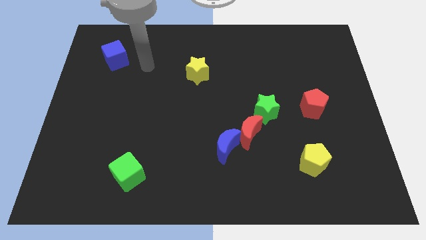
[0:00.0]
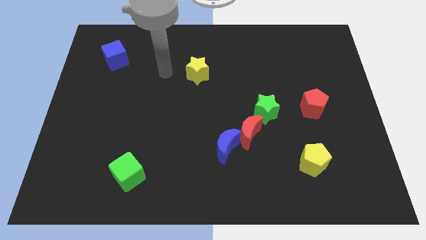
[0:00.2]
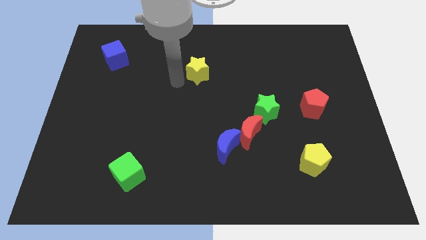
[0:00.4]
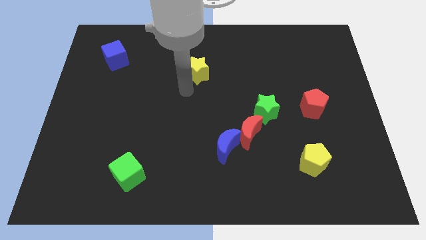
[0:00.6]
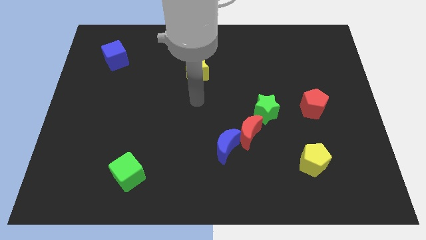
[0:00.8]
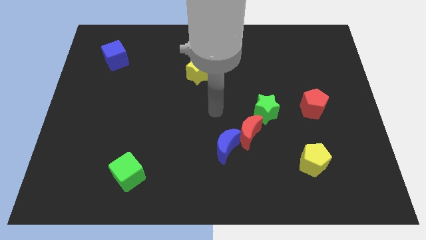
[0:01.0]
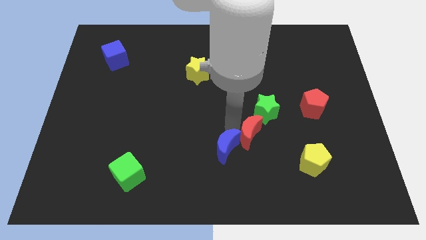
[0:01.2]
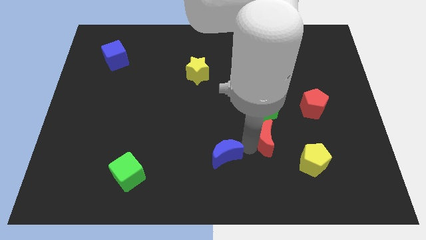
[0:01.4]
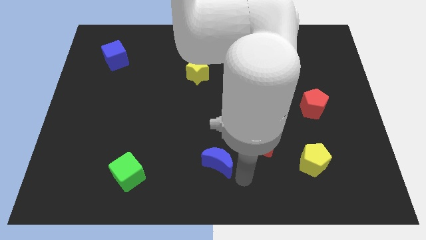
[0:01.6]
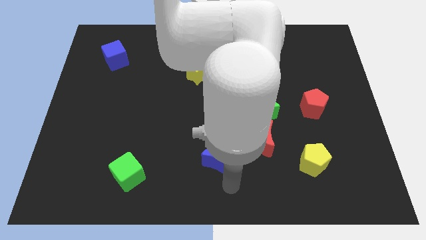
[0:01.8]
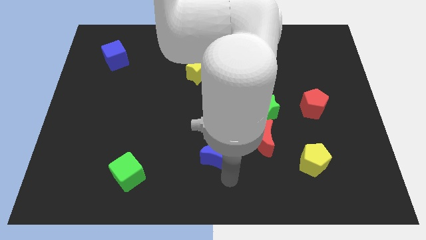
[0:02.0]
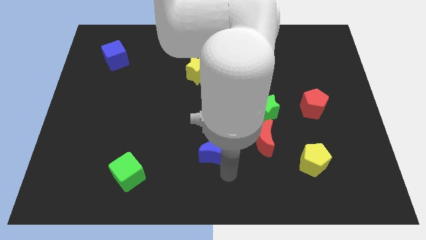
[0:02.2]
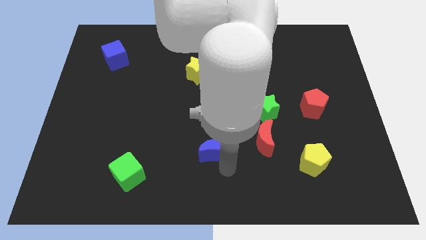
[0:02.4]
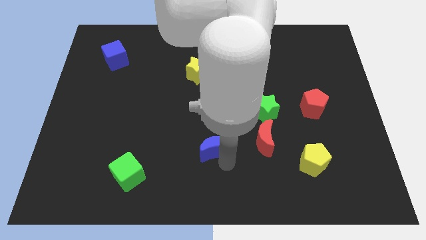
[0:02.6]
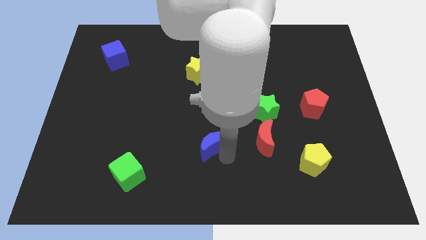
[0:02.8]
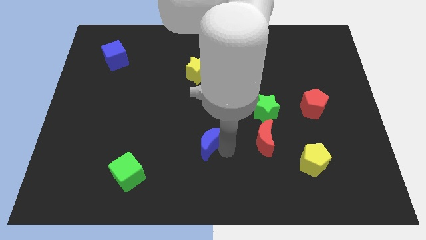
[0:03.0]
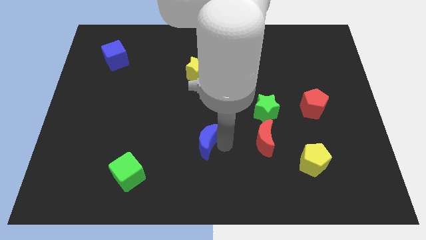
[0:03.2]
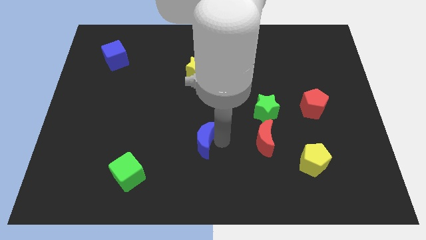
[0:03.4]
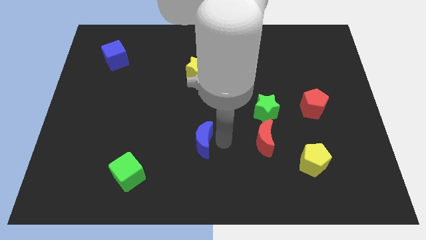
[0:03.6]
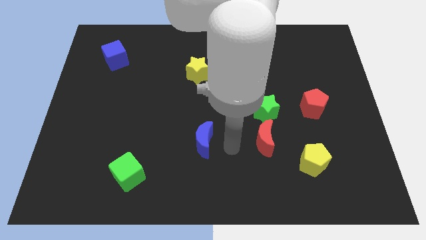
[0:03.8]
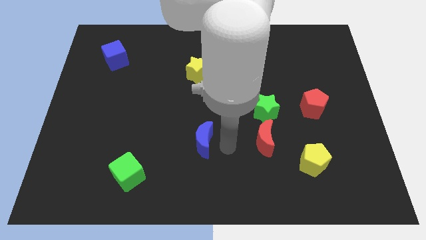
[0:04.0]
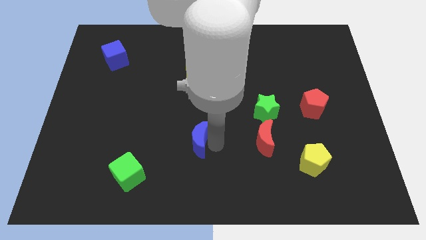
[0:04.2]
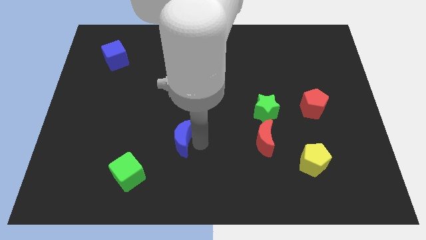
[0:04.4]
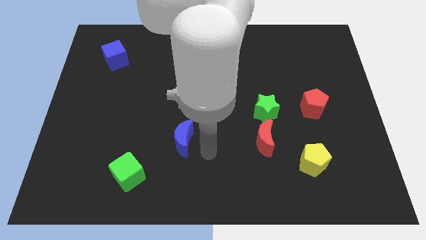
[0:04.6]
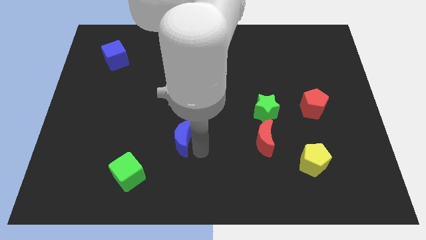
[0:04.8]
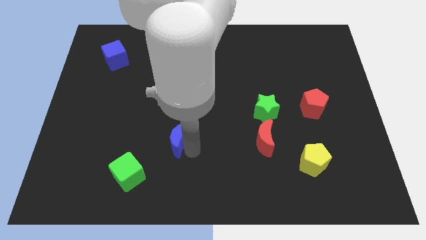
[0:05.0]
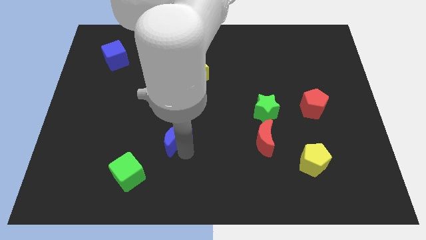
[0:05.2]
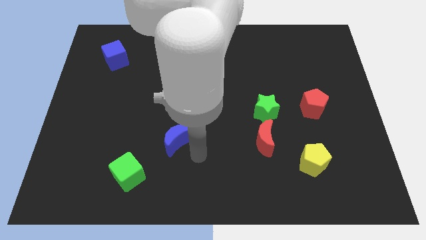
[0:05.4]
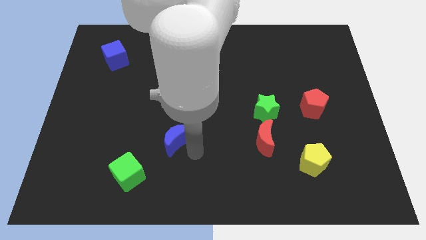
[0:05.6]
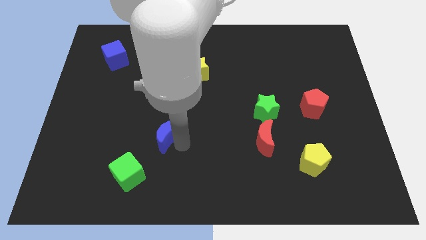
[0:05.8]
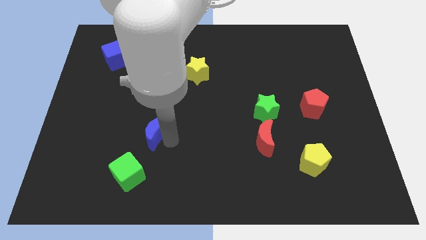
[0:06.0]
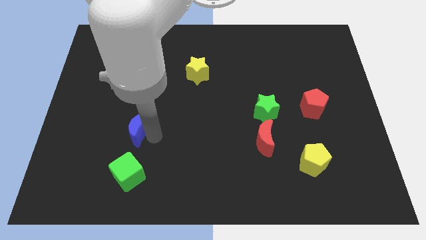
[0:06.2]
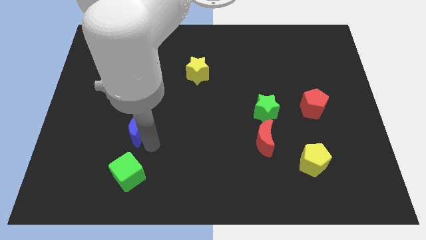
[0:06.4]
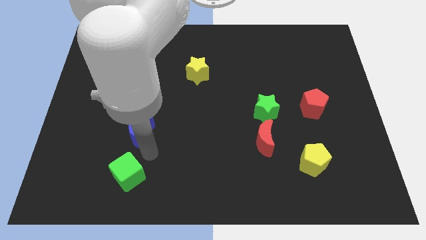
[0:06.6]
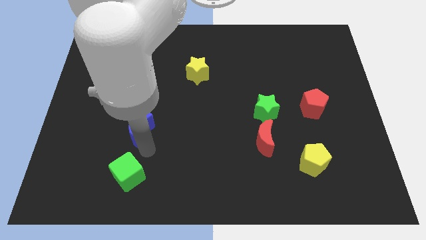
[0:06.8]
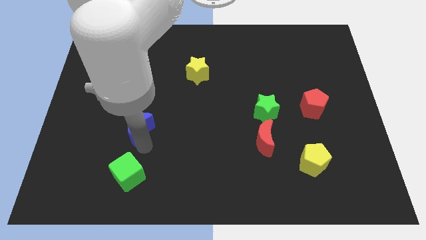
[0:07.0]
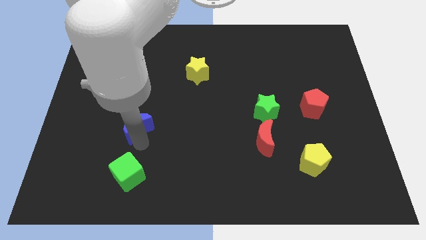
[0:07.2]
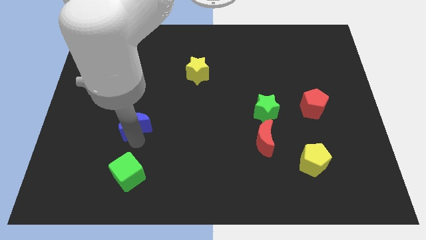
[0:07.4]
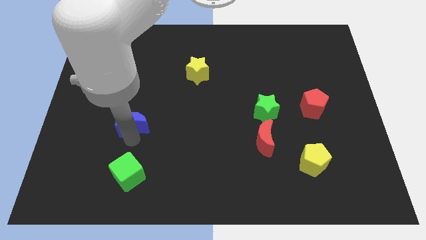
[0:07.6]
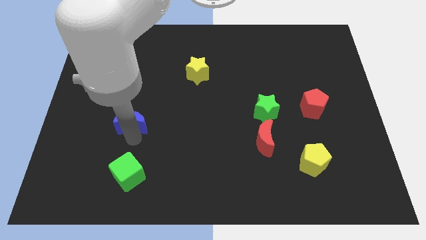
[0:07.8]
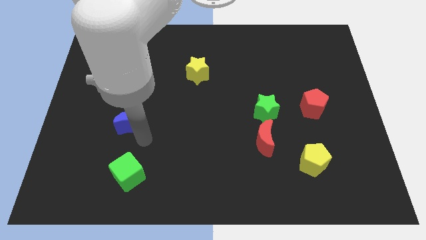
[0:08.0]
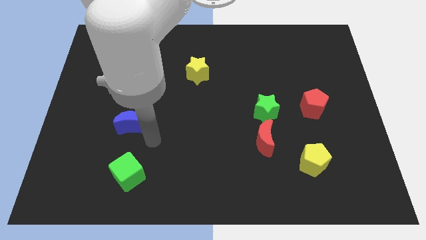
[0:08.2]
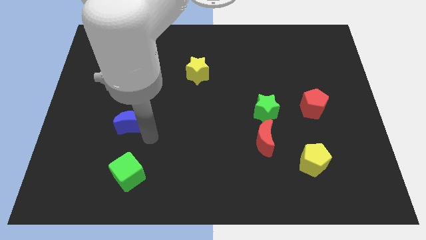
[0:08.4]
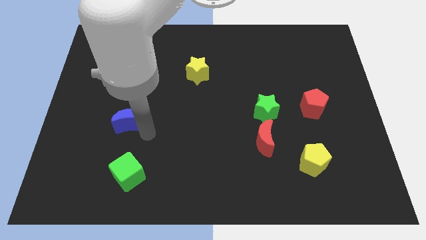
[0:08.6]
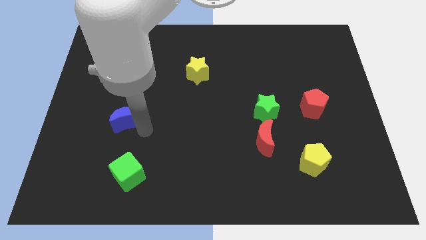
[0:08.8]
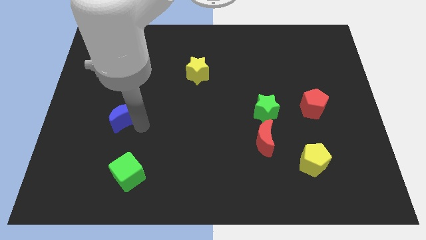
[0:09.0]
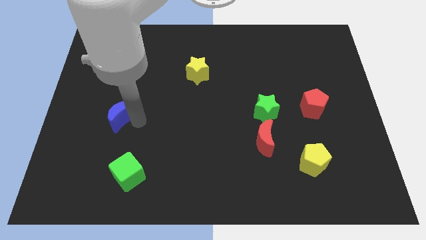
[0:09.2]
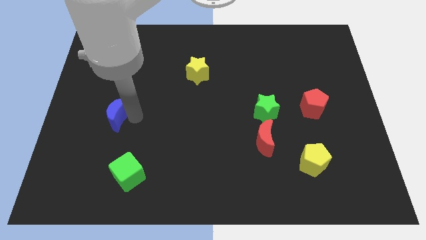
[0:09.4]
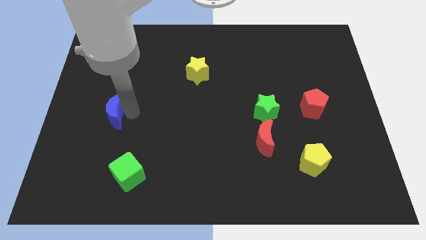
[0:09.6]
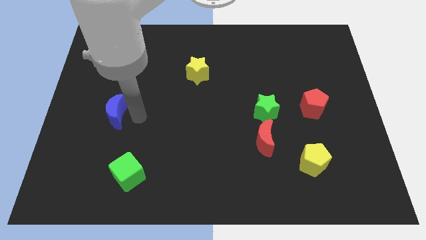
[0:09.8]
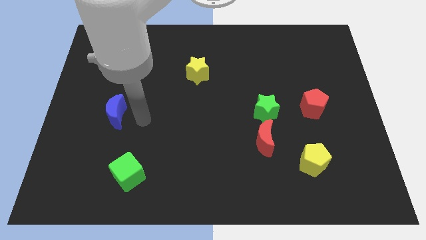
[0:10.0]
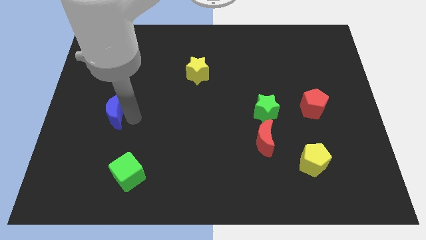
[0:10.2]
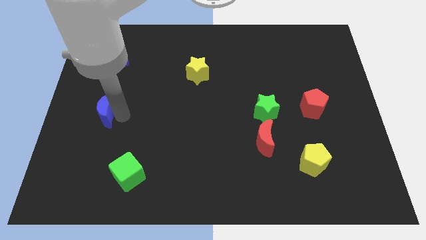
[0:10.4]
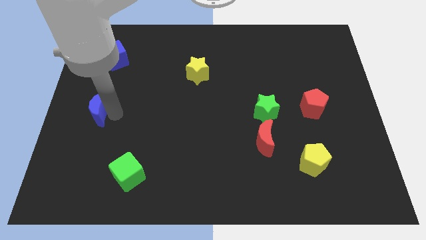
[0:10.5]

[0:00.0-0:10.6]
put the blue moon to the center left

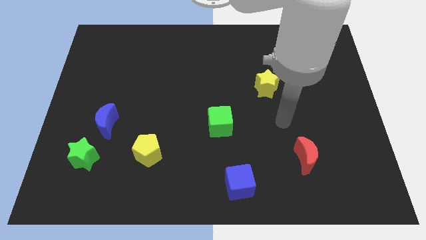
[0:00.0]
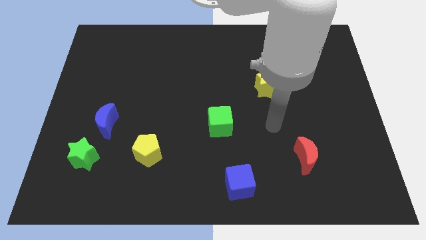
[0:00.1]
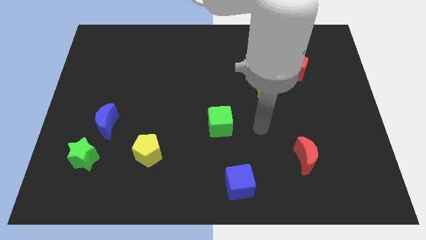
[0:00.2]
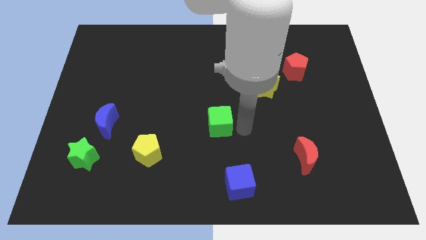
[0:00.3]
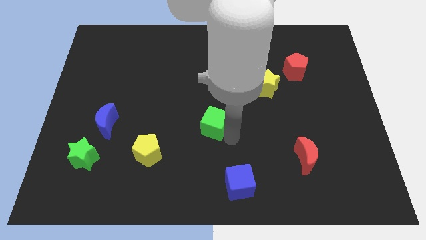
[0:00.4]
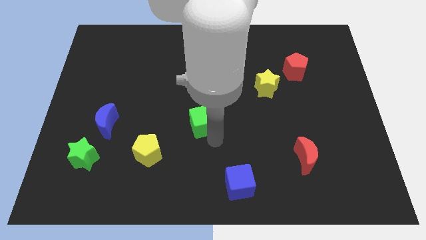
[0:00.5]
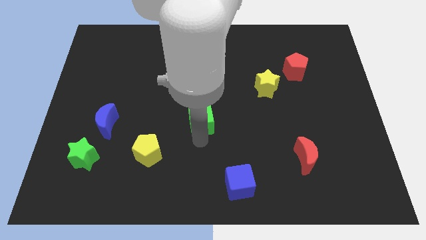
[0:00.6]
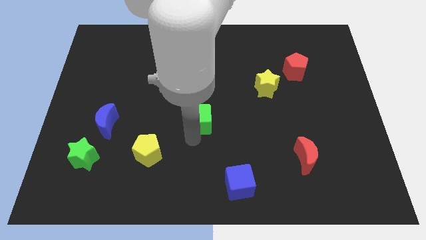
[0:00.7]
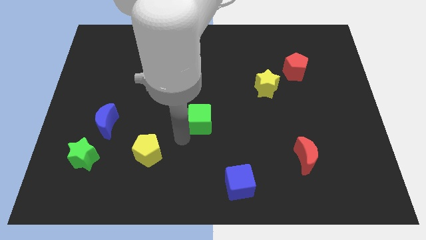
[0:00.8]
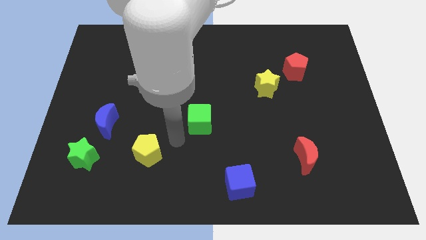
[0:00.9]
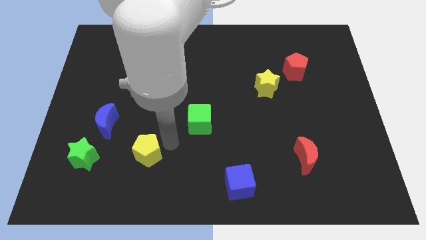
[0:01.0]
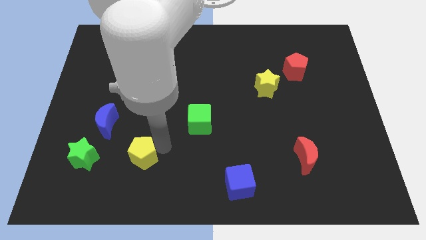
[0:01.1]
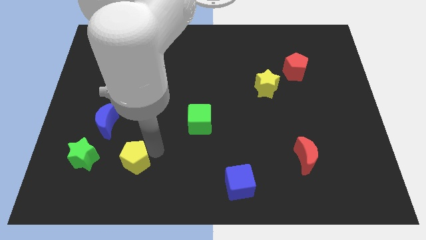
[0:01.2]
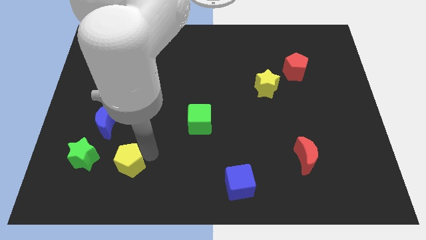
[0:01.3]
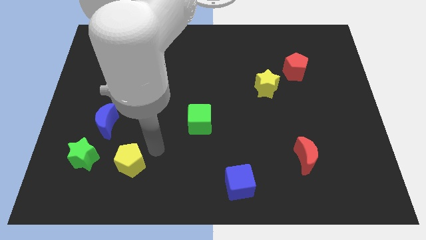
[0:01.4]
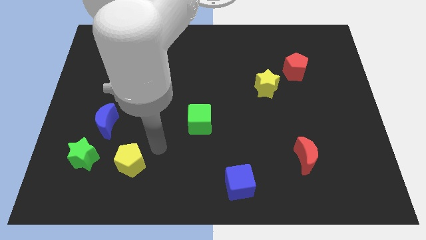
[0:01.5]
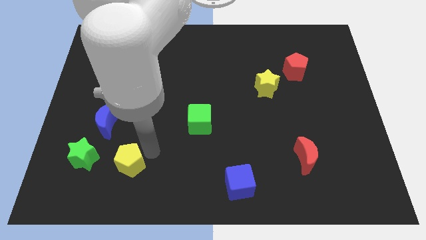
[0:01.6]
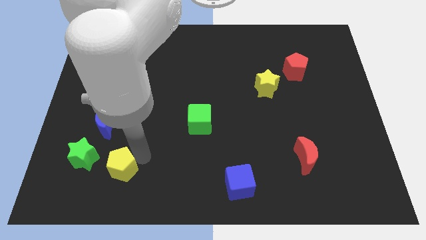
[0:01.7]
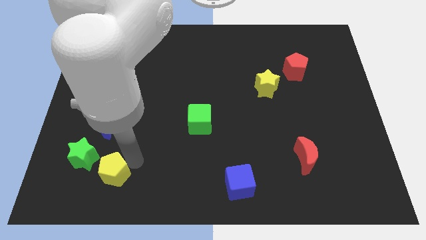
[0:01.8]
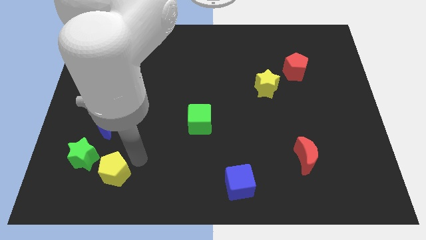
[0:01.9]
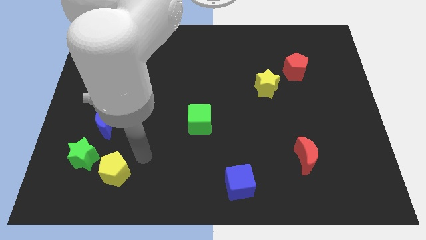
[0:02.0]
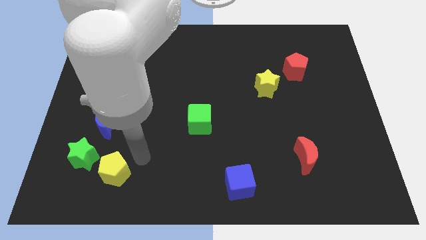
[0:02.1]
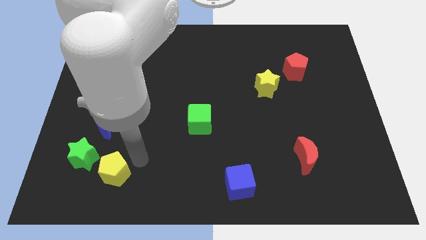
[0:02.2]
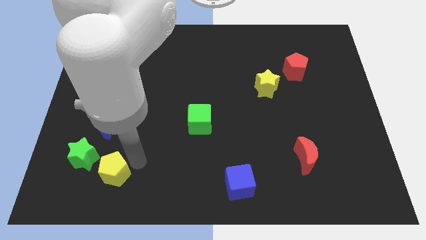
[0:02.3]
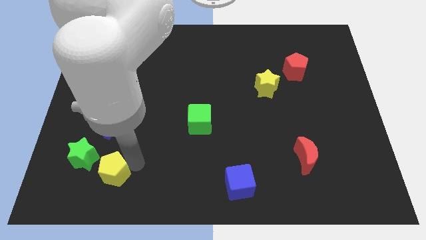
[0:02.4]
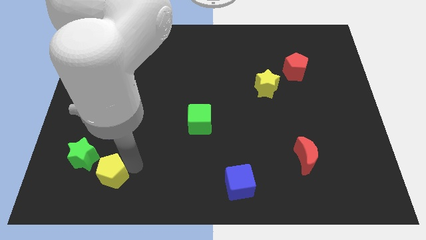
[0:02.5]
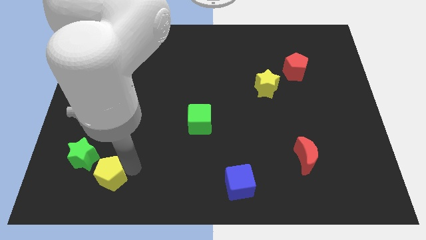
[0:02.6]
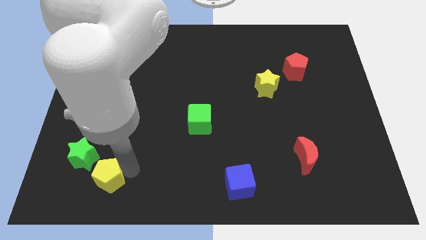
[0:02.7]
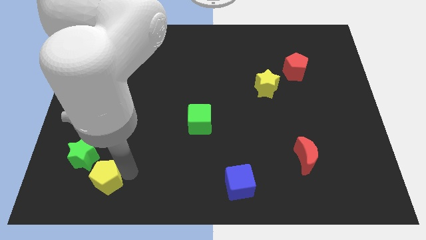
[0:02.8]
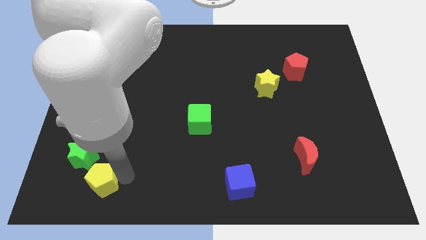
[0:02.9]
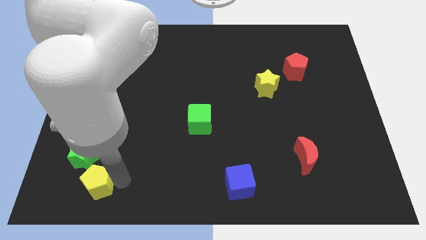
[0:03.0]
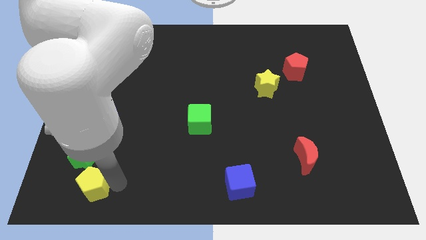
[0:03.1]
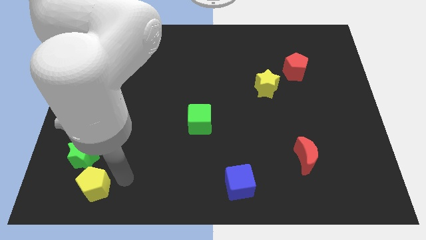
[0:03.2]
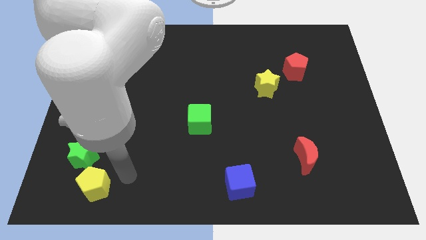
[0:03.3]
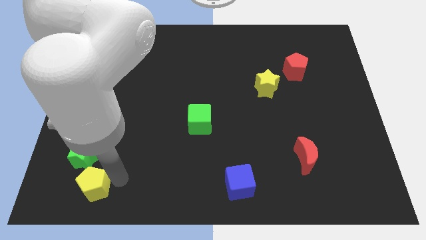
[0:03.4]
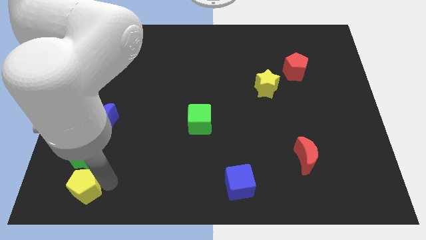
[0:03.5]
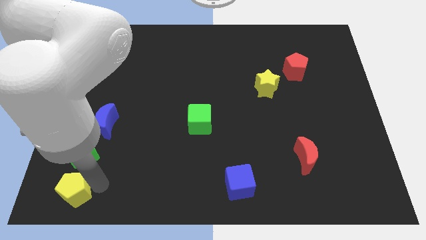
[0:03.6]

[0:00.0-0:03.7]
slide the yellow pentagon to the bottom left of the board
